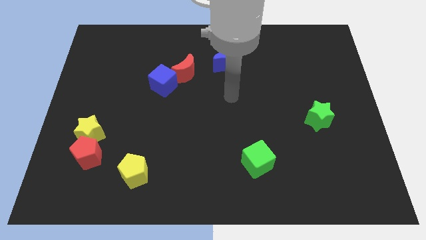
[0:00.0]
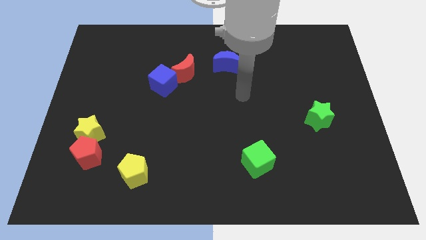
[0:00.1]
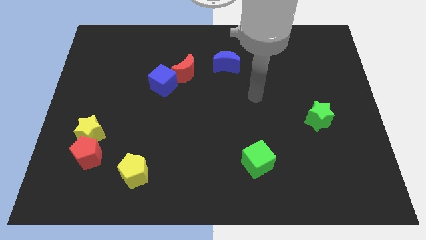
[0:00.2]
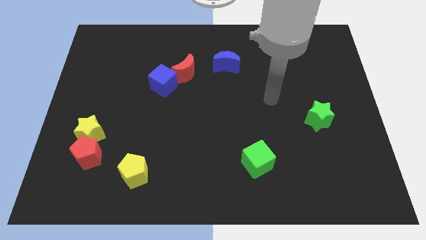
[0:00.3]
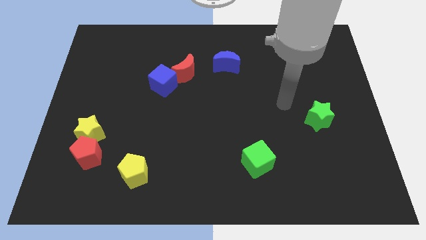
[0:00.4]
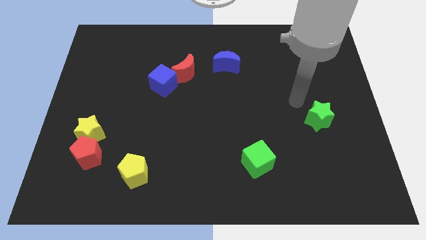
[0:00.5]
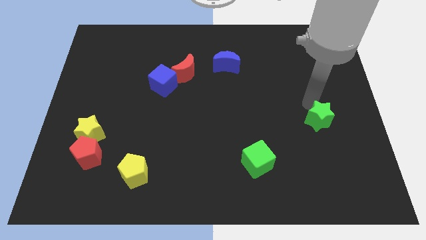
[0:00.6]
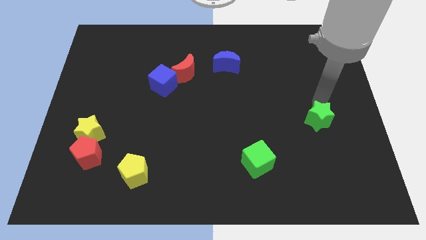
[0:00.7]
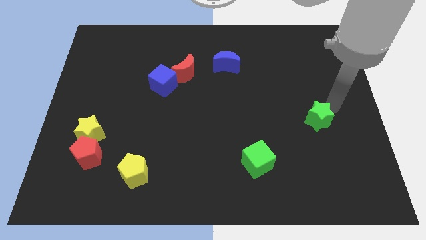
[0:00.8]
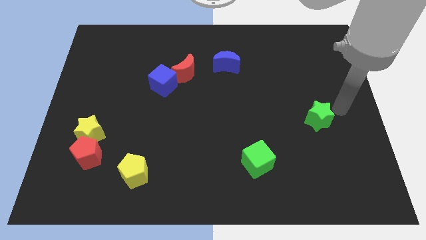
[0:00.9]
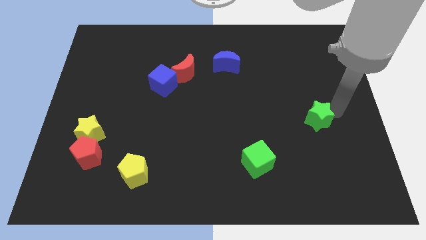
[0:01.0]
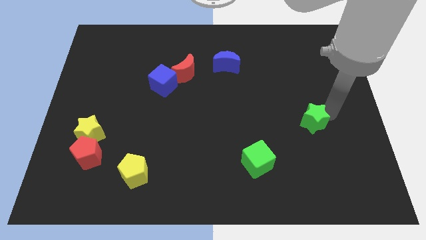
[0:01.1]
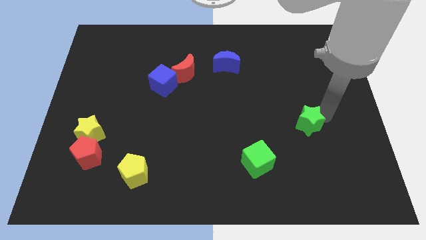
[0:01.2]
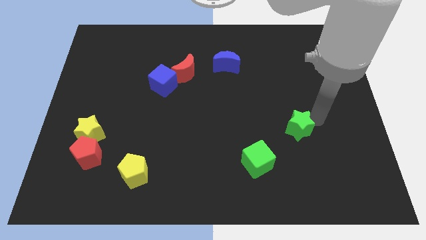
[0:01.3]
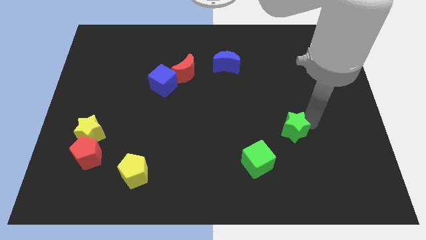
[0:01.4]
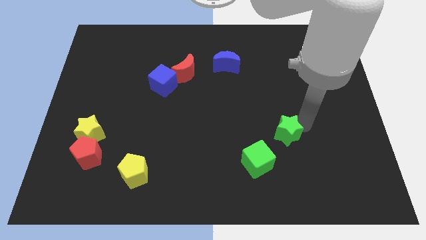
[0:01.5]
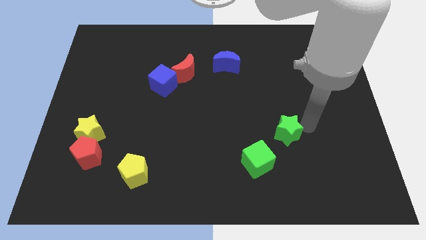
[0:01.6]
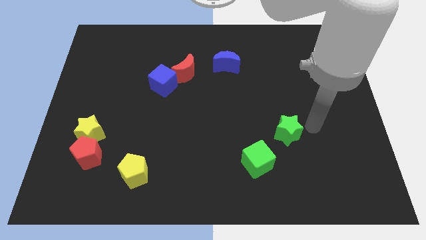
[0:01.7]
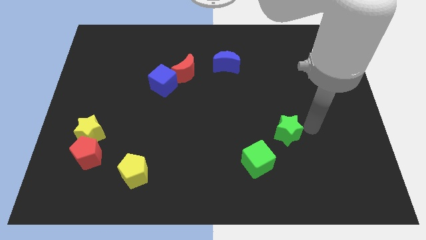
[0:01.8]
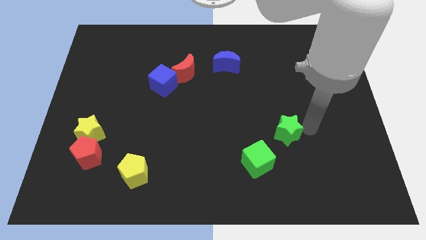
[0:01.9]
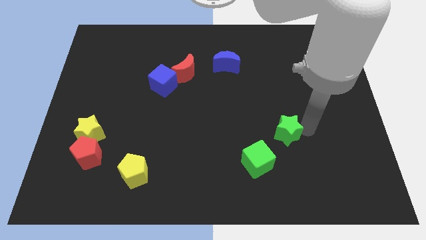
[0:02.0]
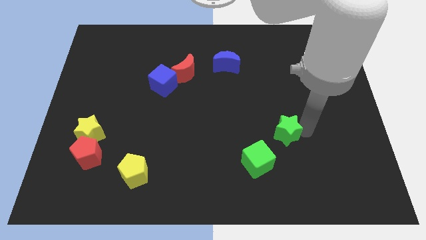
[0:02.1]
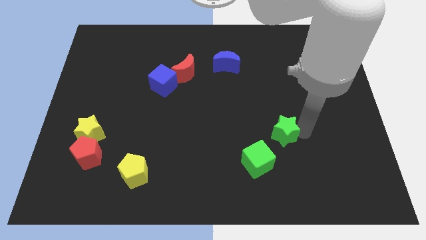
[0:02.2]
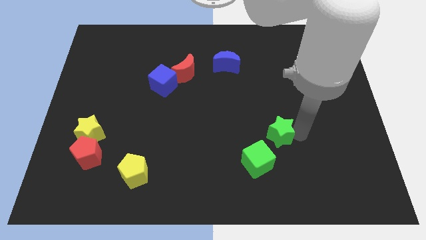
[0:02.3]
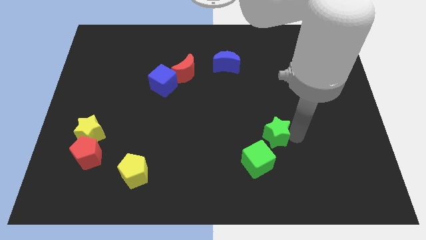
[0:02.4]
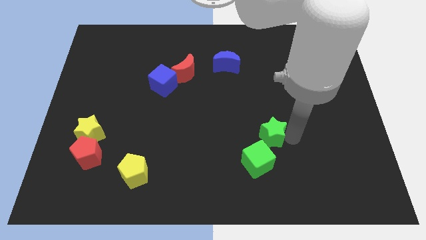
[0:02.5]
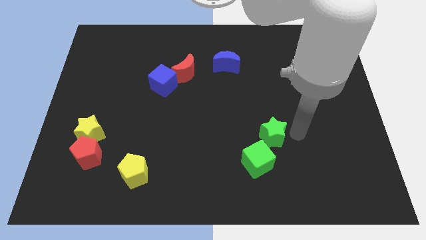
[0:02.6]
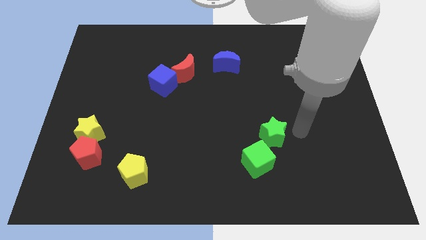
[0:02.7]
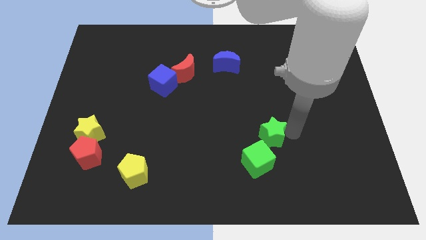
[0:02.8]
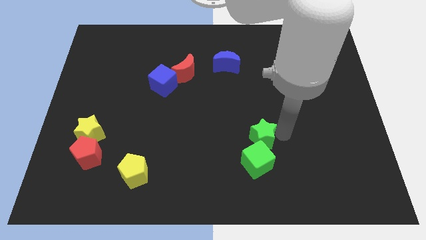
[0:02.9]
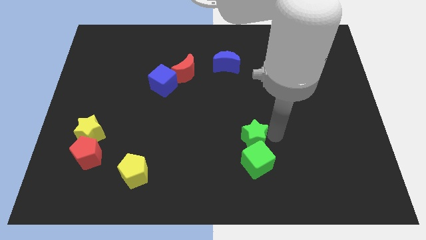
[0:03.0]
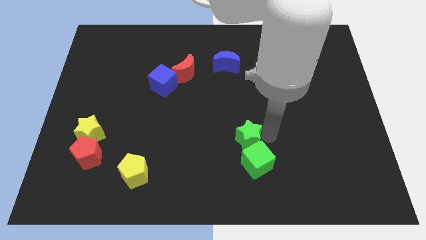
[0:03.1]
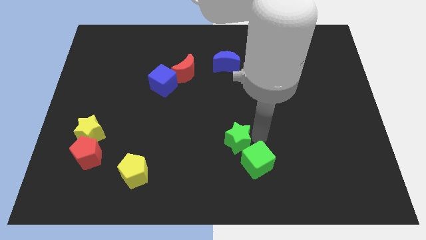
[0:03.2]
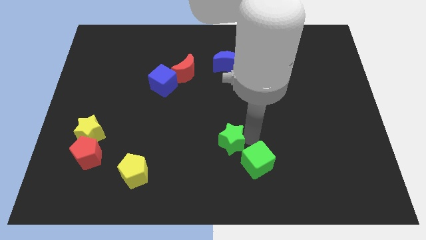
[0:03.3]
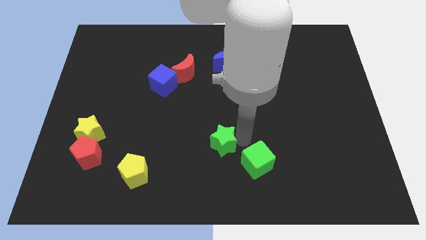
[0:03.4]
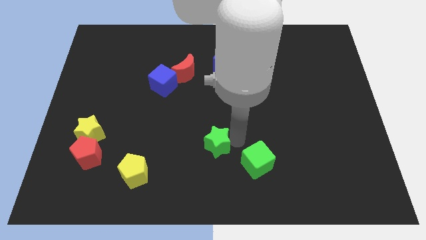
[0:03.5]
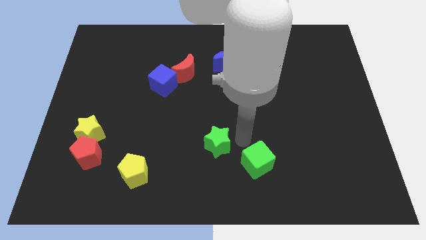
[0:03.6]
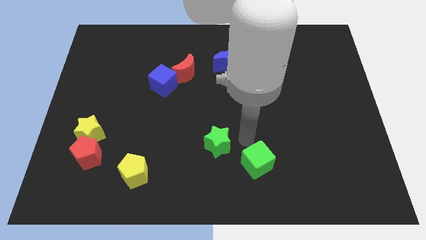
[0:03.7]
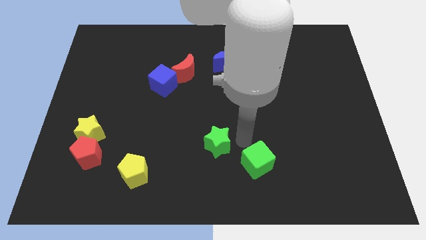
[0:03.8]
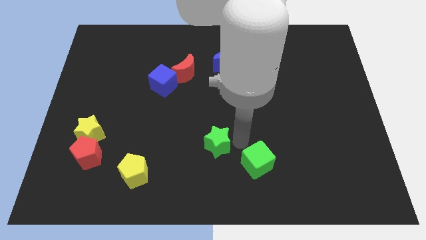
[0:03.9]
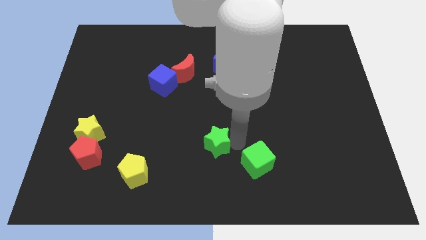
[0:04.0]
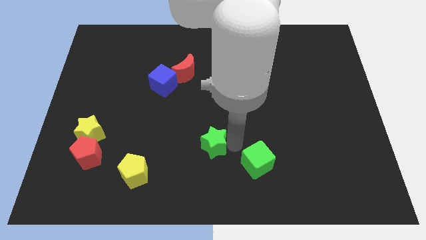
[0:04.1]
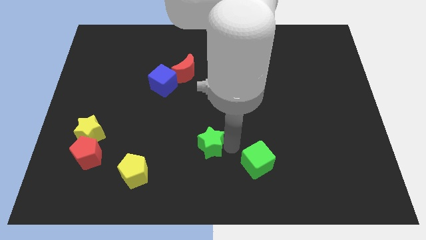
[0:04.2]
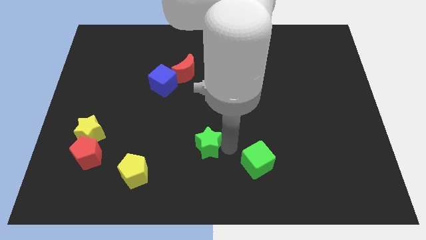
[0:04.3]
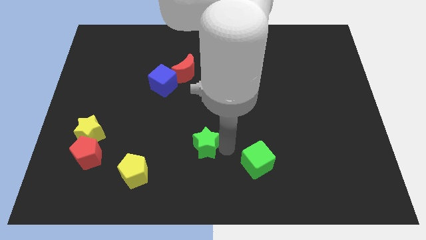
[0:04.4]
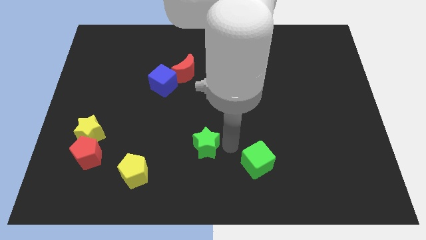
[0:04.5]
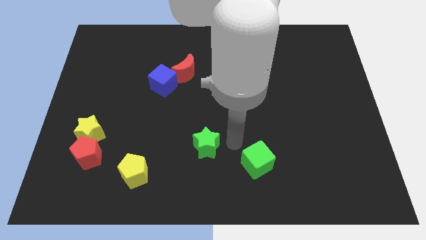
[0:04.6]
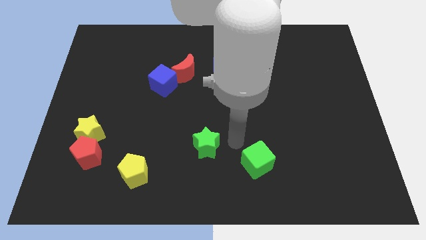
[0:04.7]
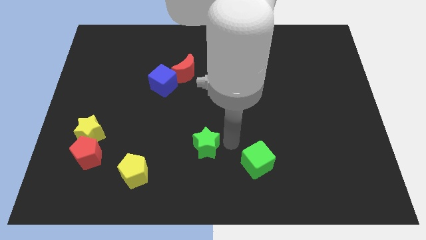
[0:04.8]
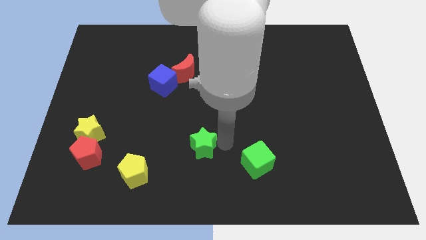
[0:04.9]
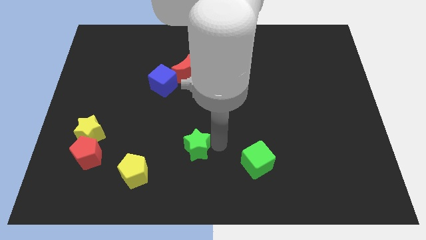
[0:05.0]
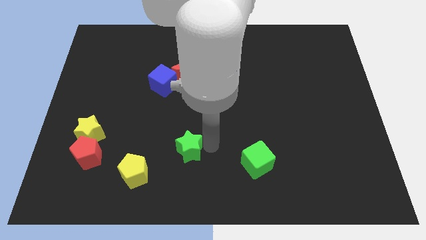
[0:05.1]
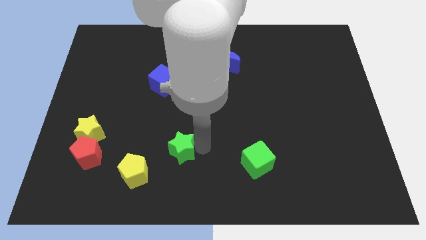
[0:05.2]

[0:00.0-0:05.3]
put the green star to the top right of the yellow pentagon

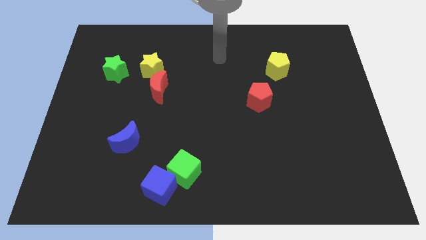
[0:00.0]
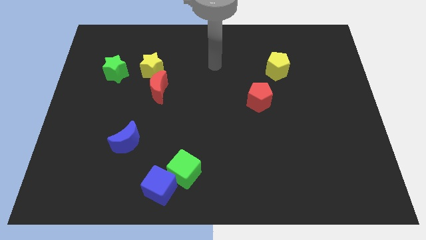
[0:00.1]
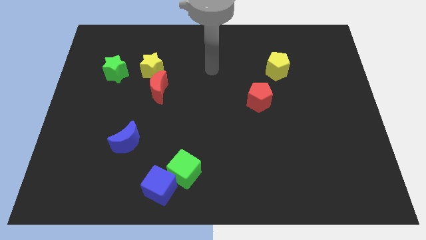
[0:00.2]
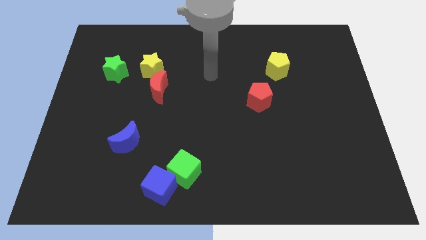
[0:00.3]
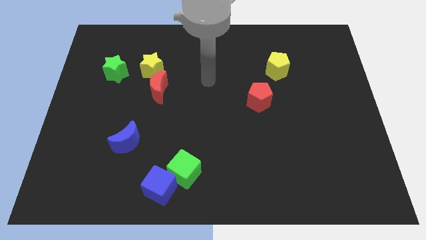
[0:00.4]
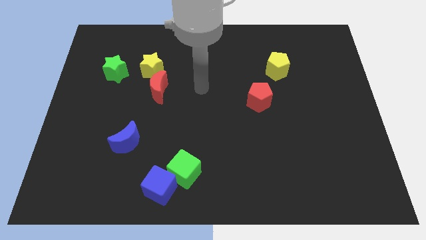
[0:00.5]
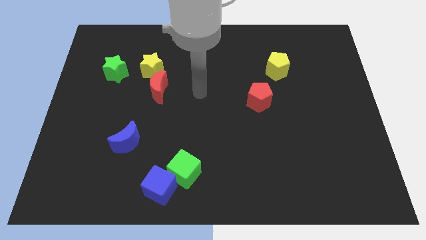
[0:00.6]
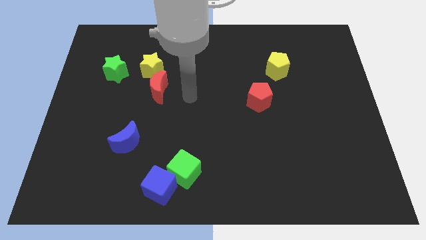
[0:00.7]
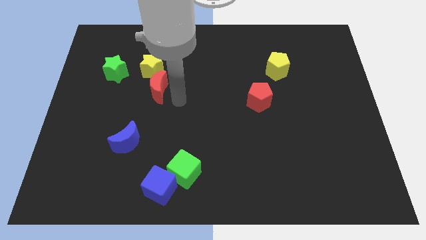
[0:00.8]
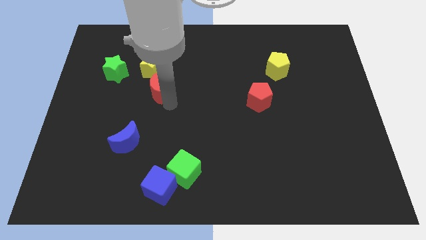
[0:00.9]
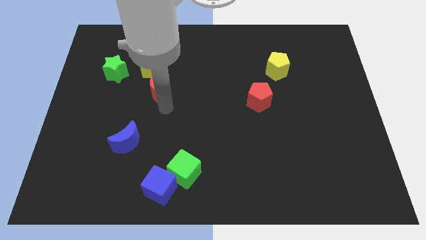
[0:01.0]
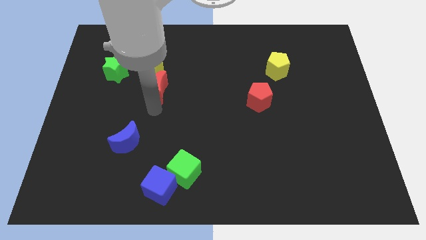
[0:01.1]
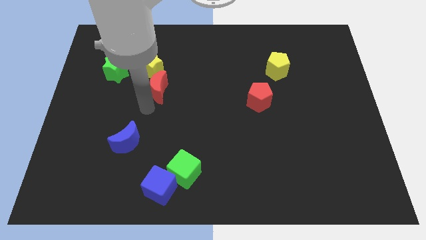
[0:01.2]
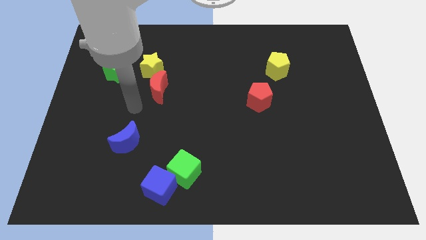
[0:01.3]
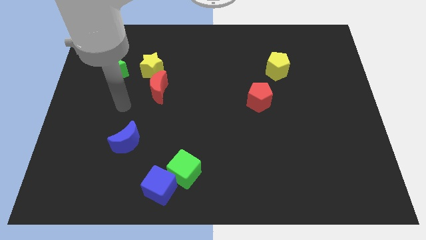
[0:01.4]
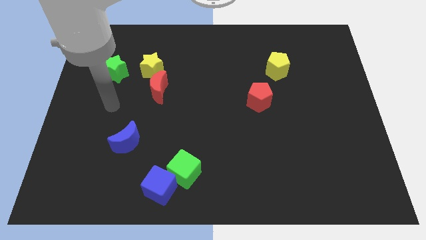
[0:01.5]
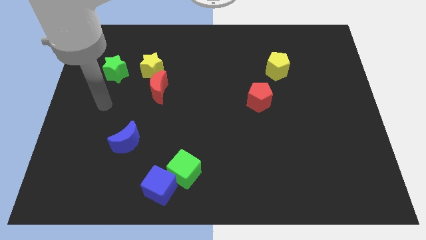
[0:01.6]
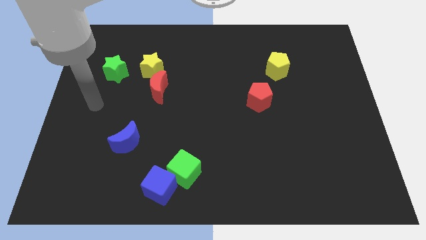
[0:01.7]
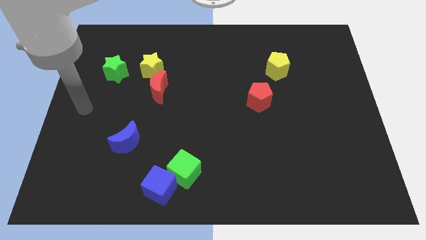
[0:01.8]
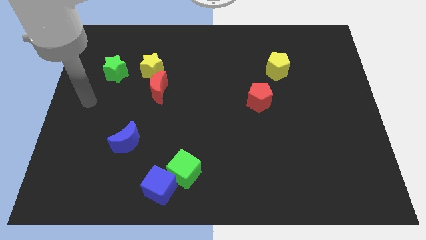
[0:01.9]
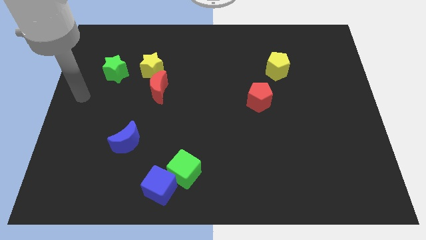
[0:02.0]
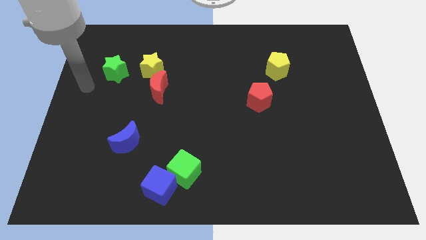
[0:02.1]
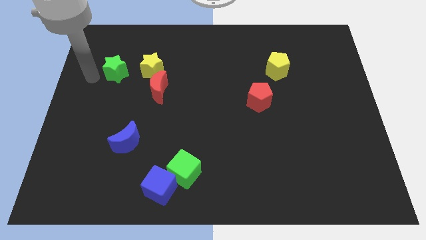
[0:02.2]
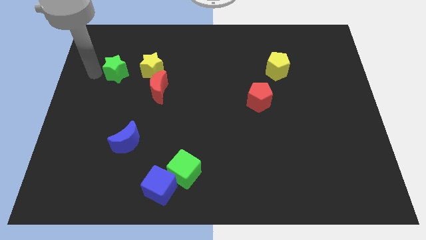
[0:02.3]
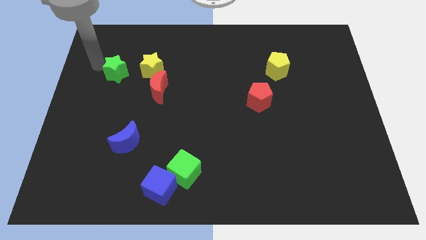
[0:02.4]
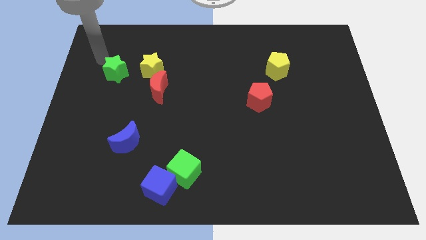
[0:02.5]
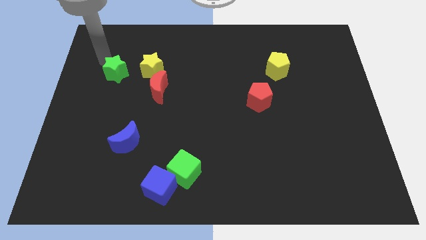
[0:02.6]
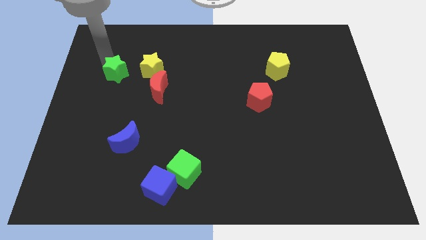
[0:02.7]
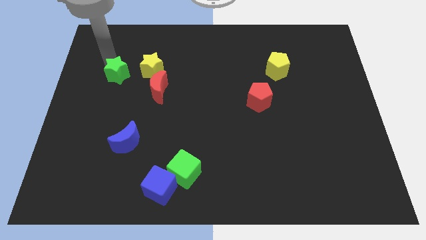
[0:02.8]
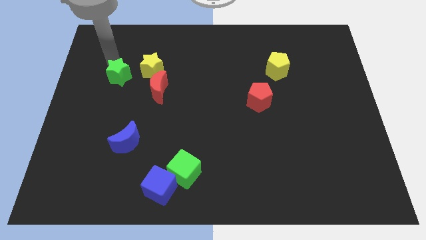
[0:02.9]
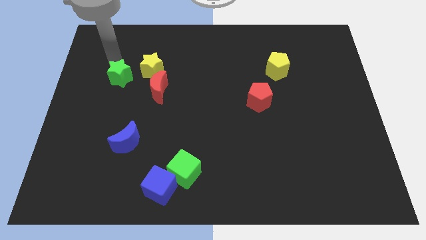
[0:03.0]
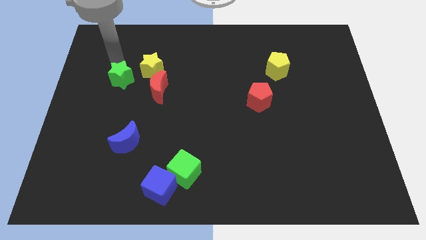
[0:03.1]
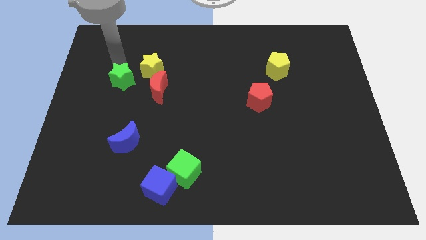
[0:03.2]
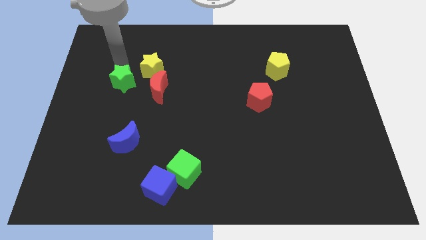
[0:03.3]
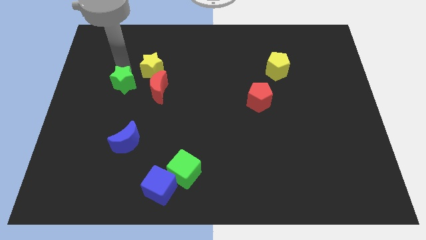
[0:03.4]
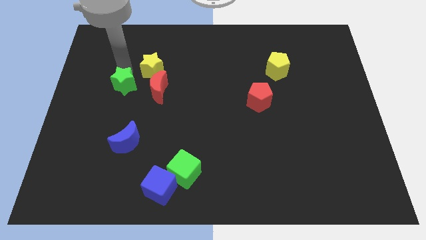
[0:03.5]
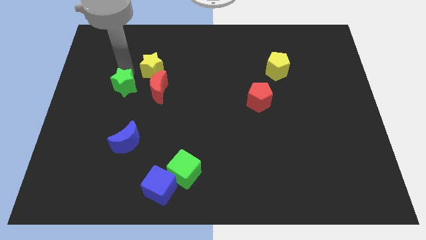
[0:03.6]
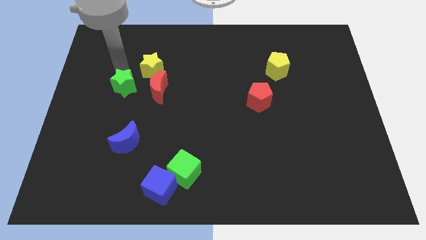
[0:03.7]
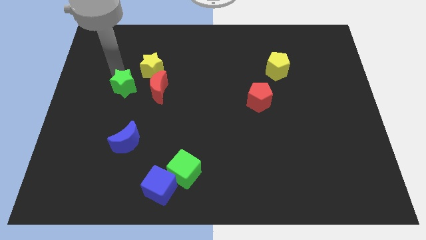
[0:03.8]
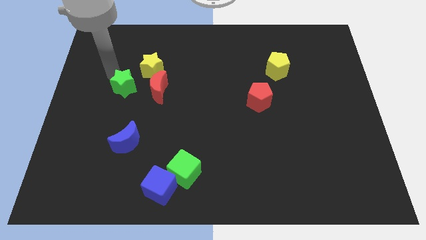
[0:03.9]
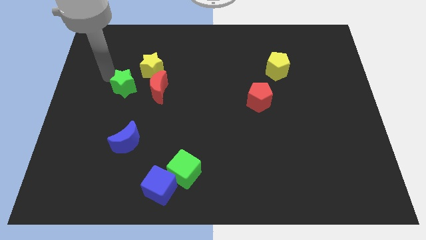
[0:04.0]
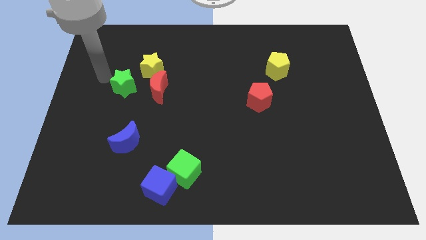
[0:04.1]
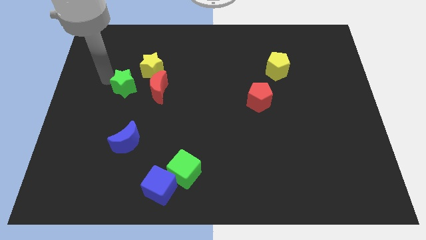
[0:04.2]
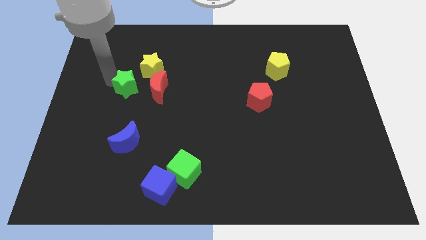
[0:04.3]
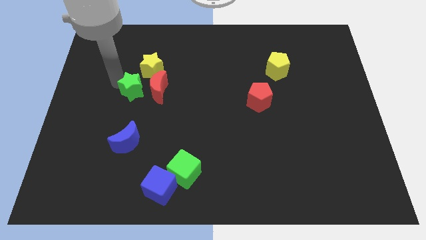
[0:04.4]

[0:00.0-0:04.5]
put the green star to the bottom side of the yellow star
